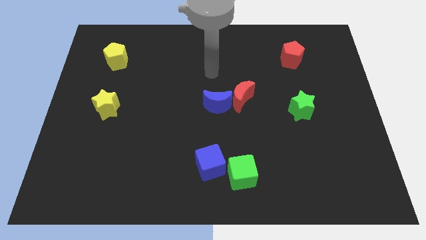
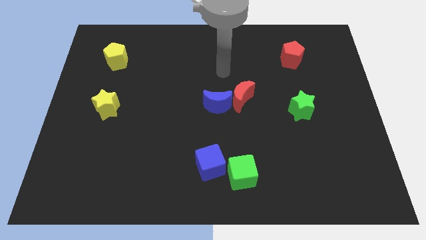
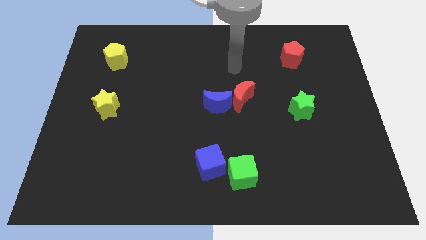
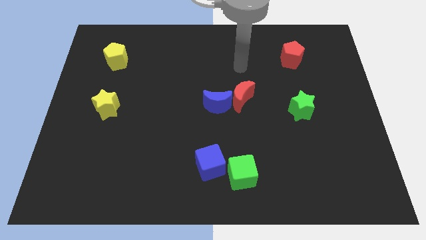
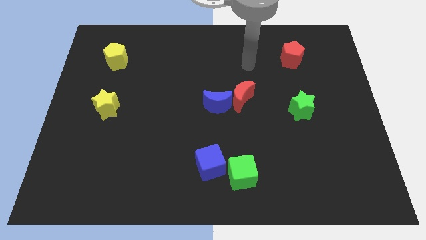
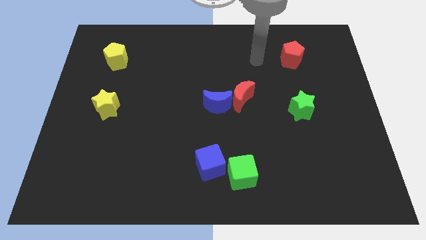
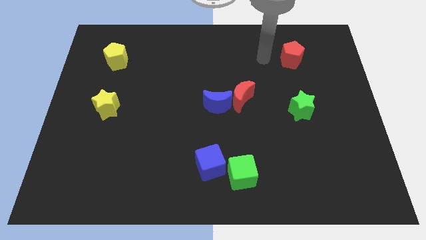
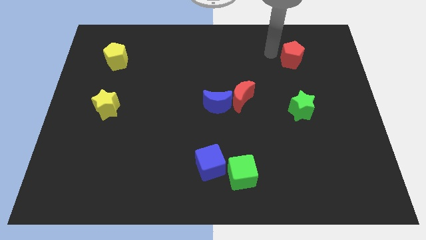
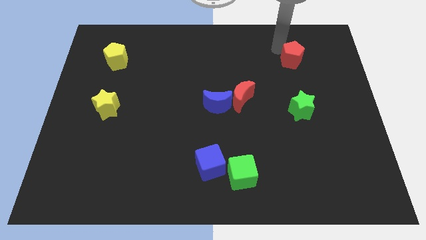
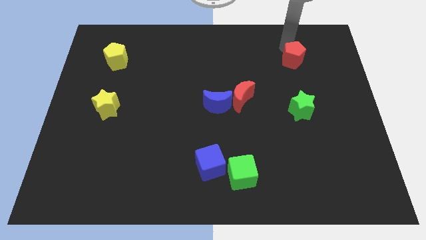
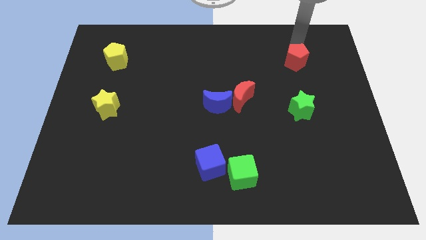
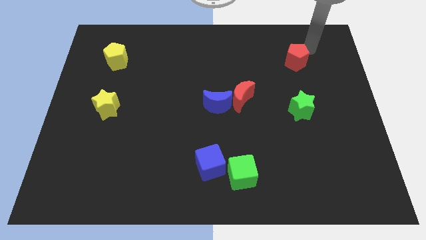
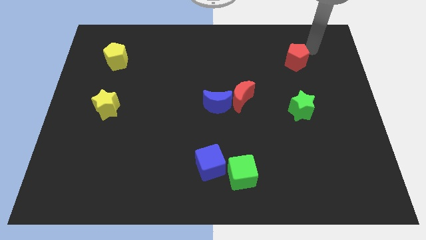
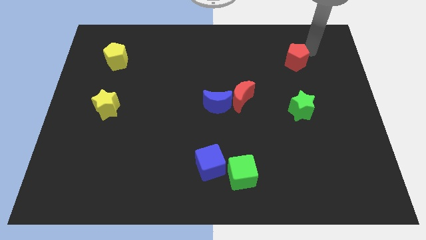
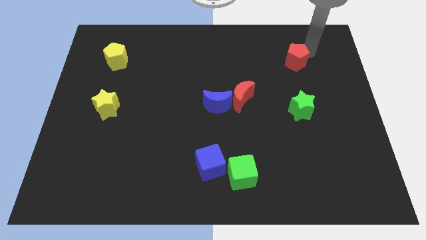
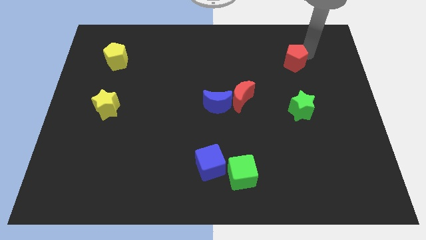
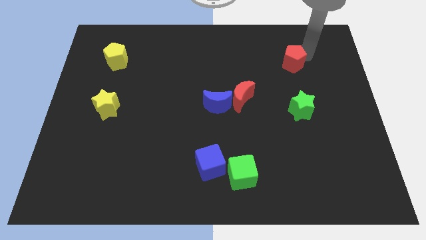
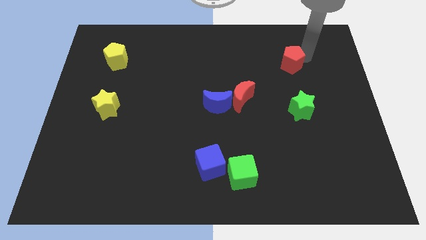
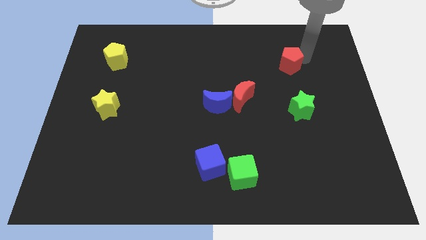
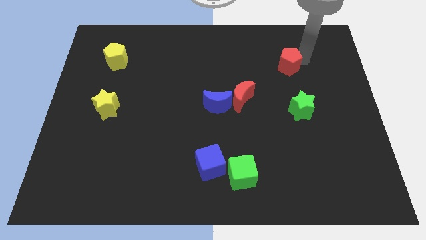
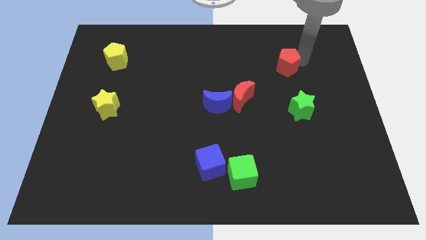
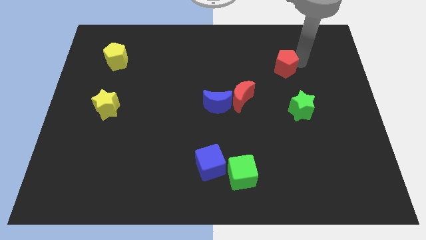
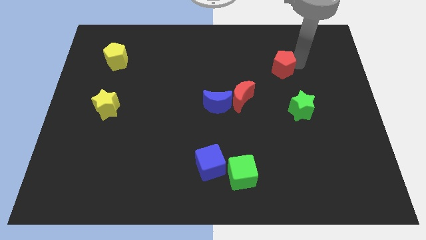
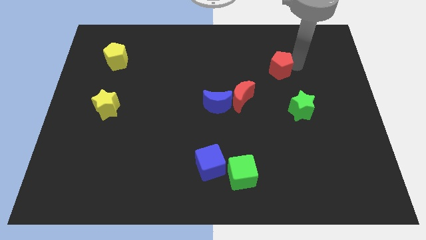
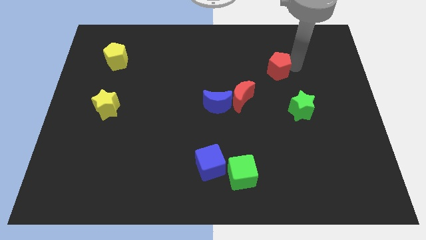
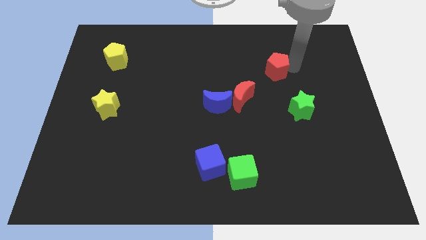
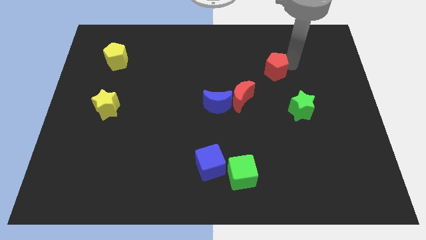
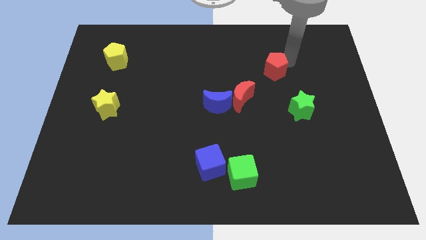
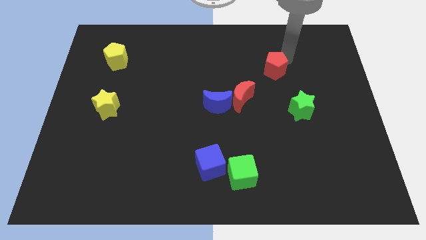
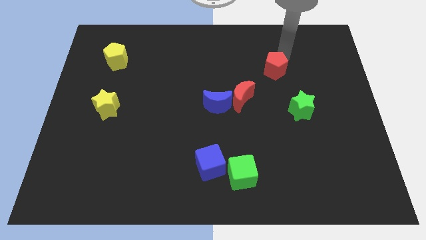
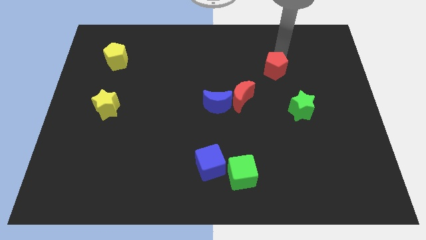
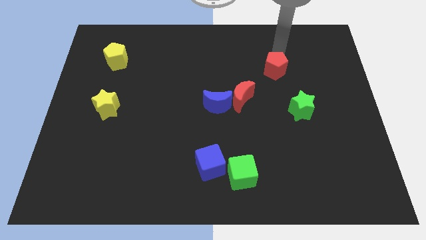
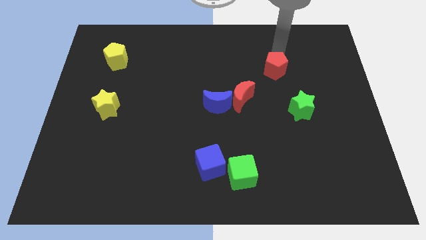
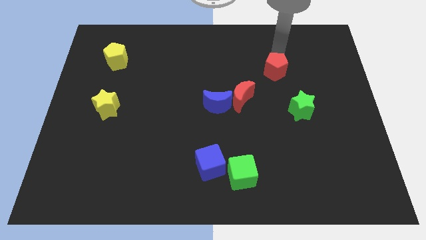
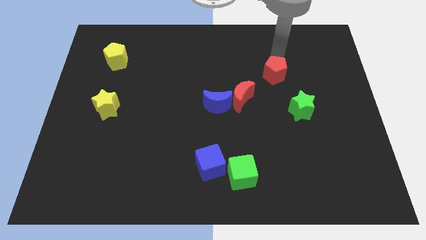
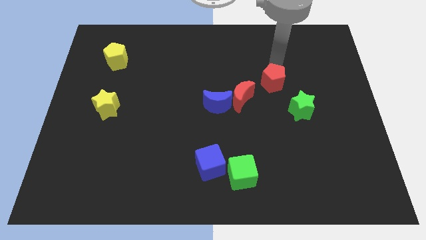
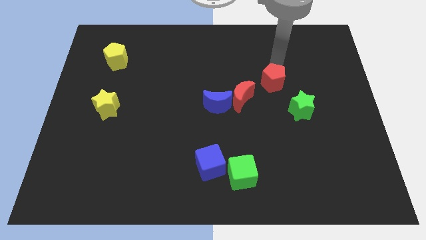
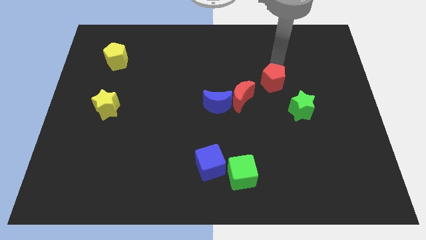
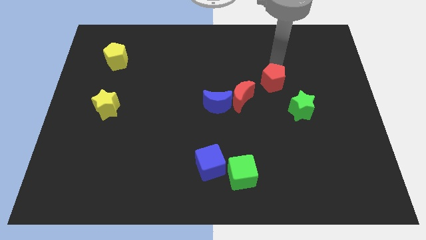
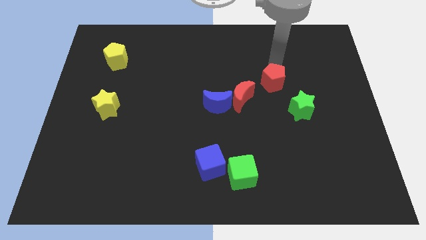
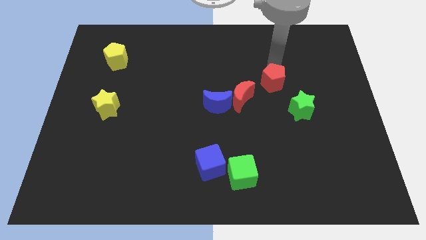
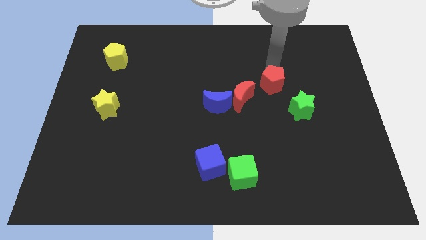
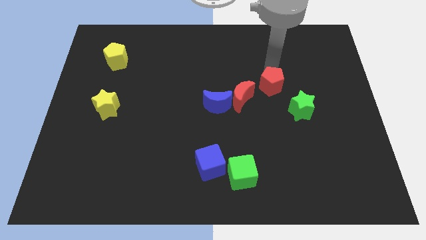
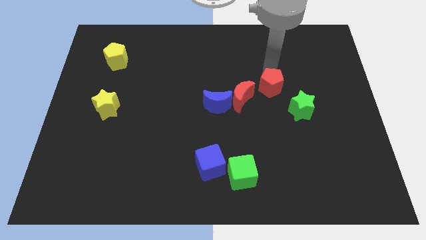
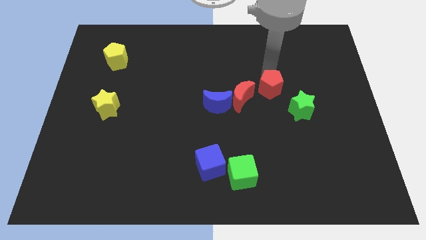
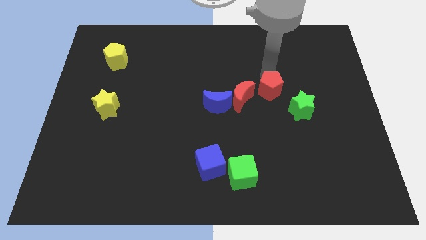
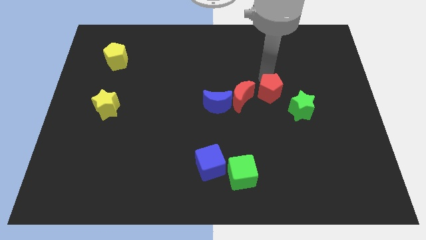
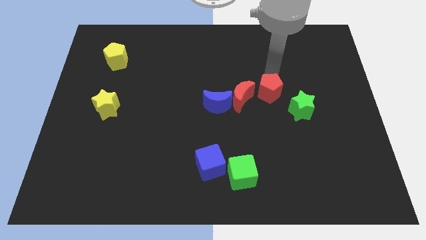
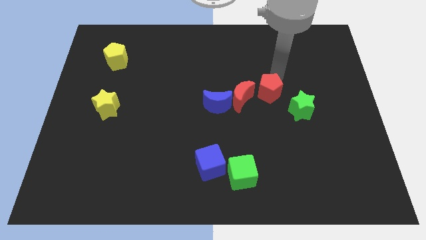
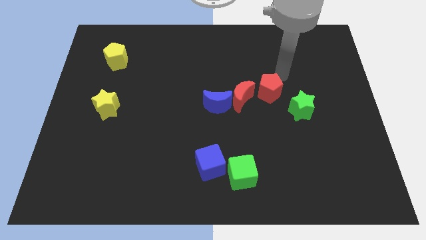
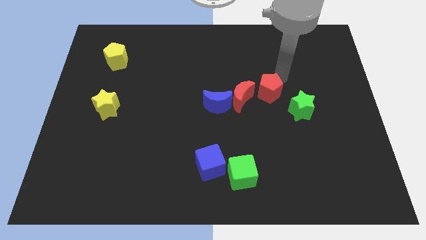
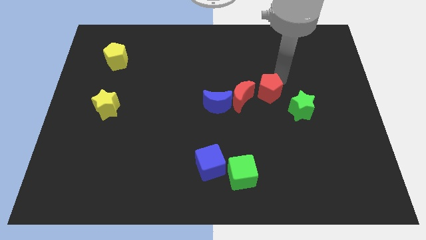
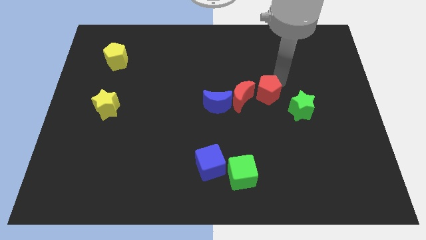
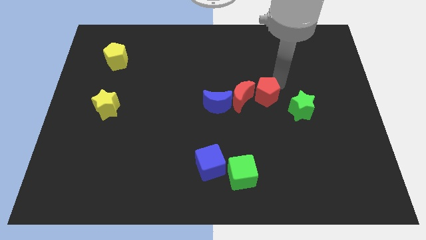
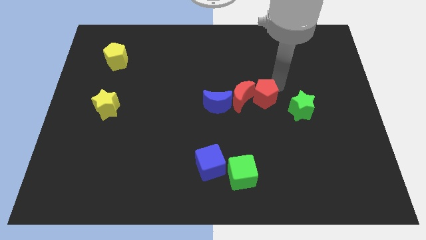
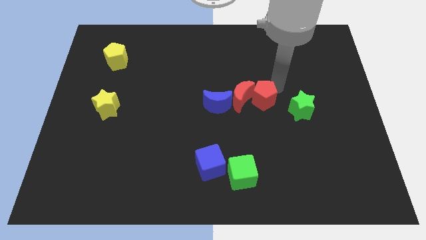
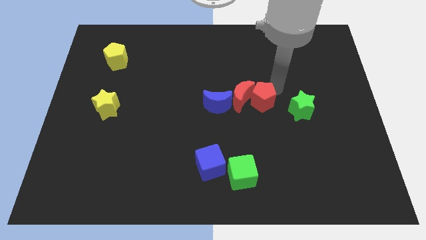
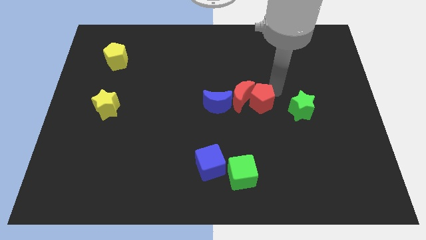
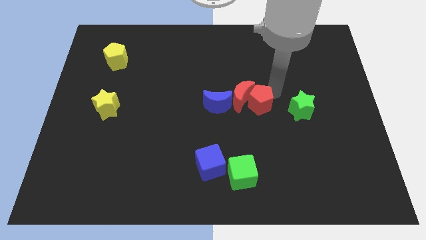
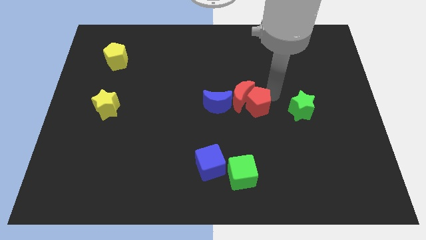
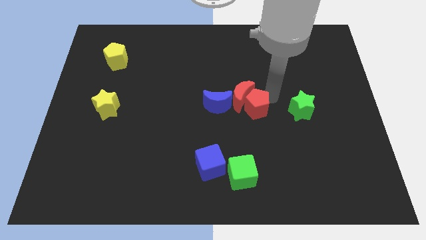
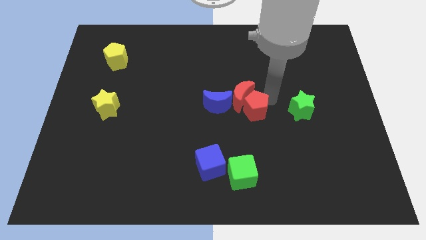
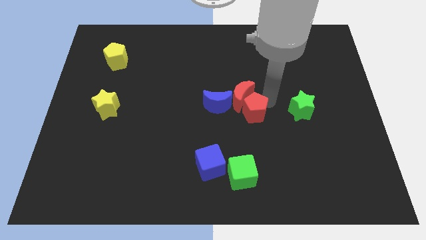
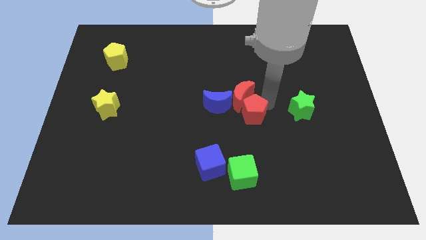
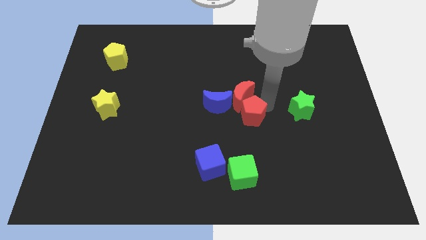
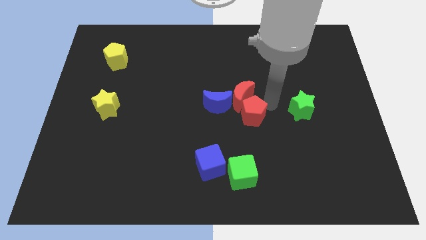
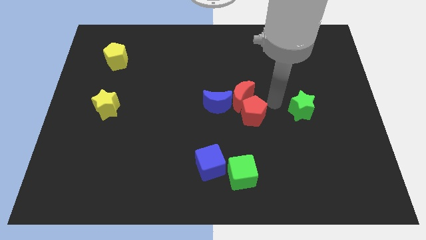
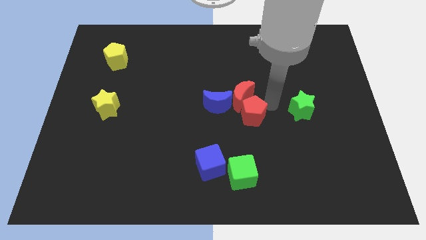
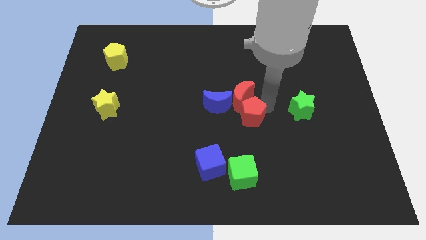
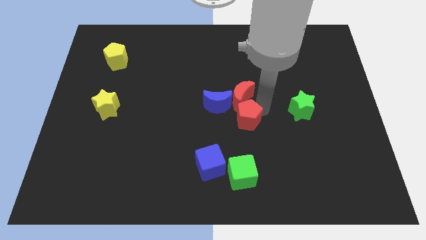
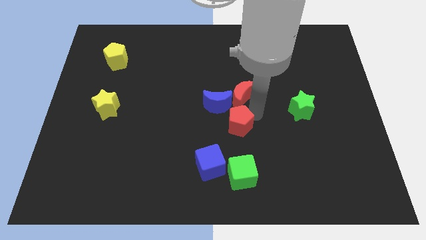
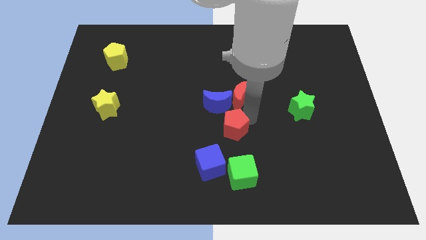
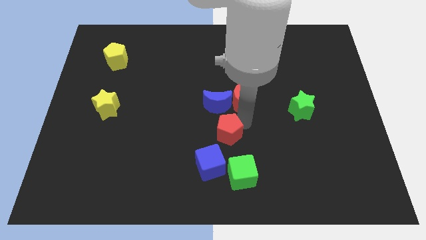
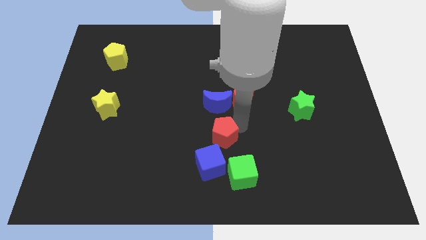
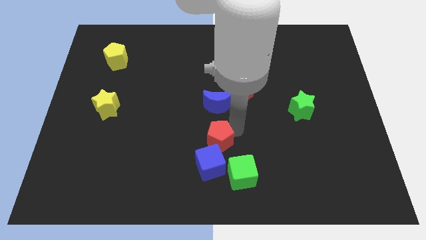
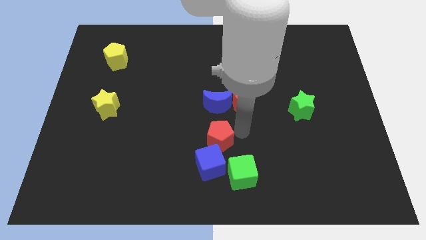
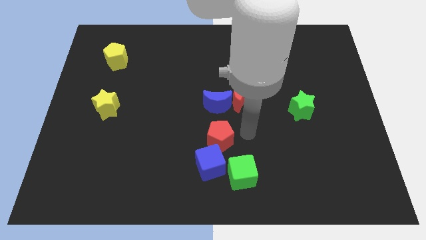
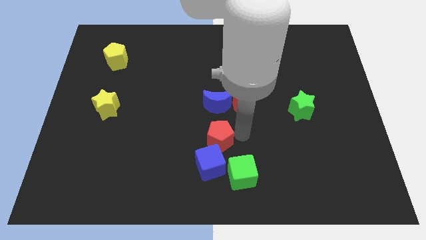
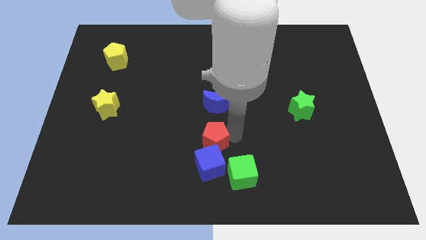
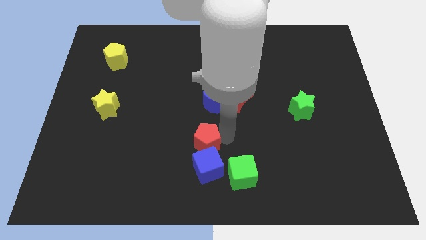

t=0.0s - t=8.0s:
move the red pentagon to the top left side of the blue cube

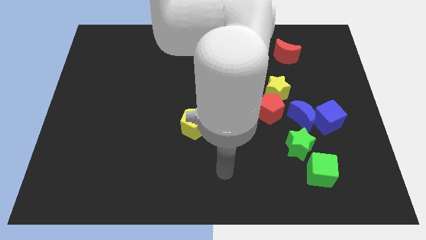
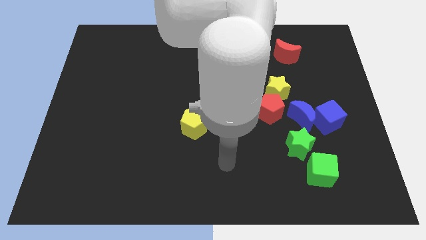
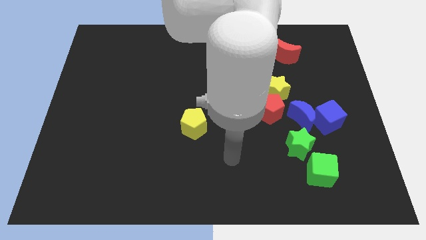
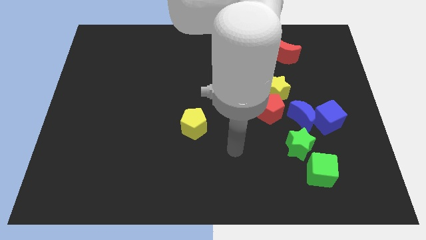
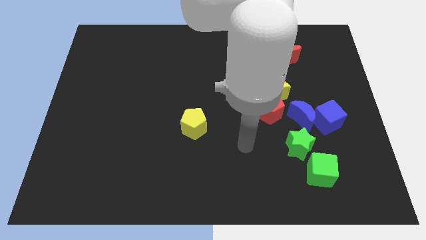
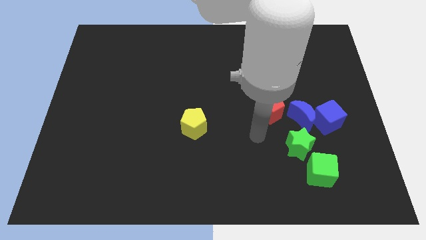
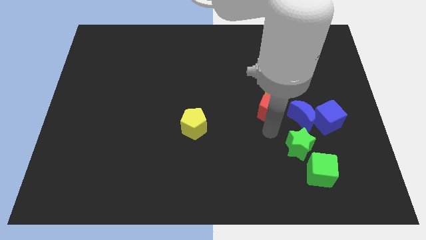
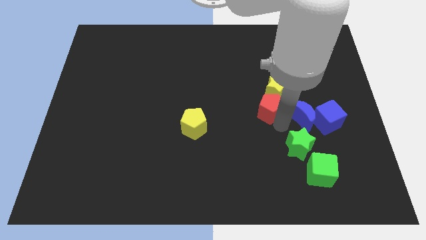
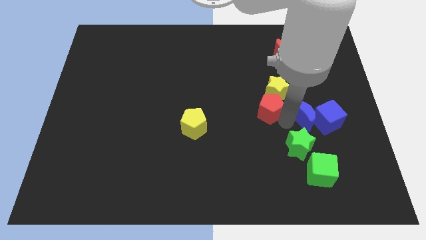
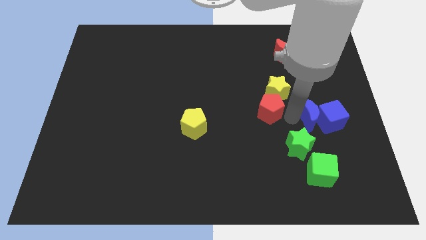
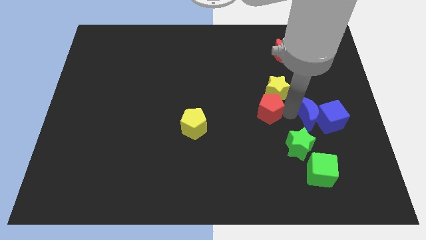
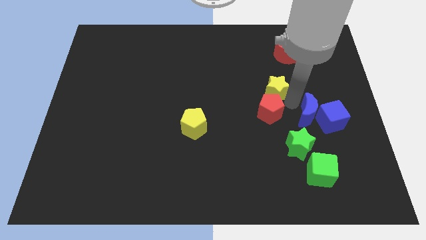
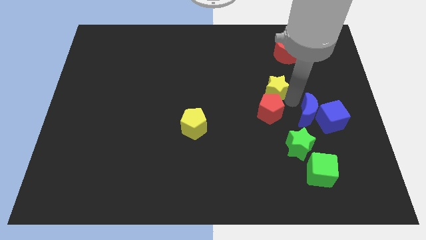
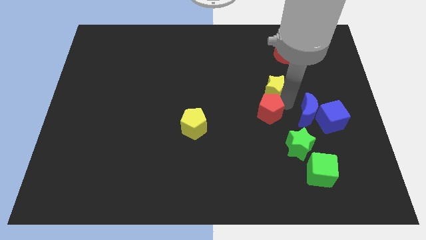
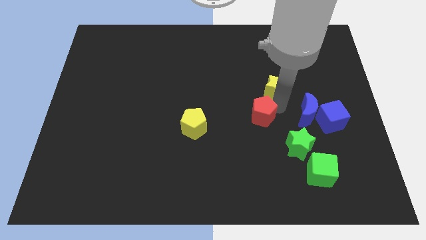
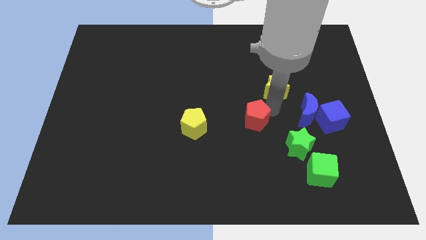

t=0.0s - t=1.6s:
move the red pentagon to the right of the yellow pentagon
